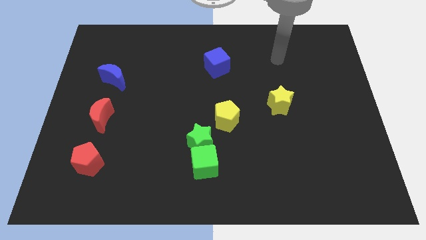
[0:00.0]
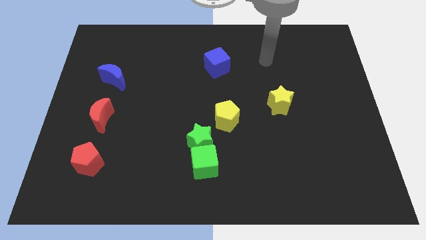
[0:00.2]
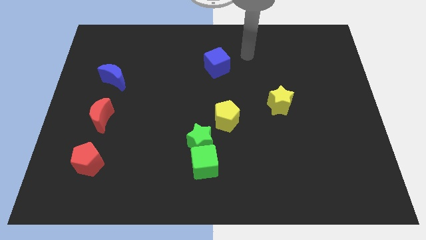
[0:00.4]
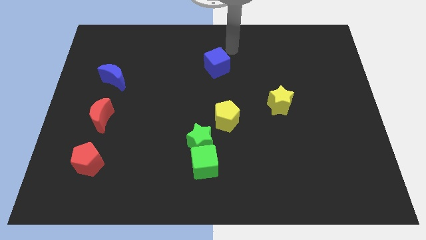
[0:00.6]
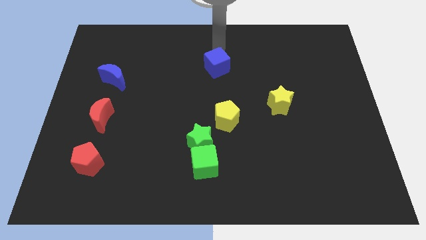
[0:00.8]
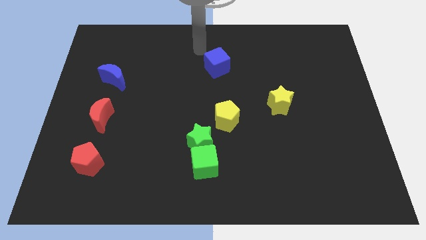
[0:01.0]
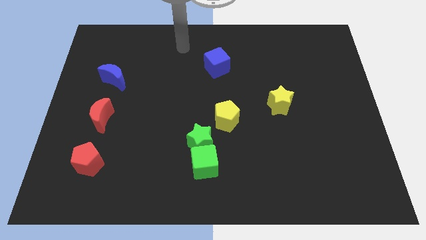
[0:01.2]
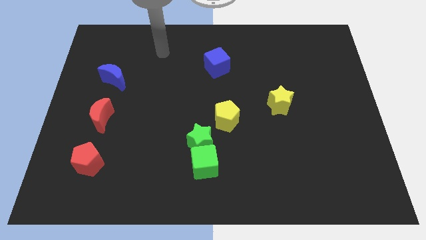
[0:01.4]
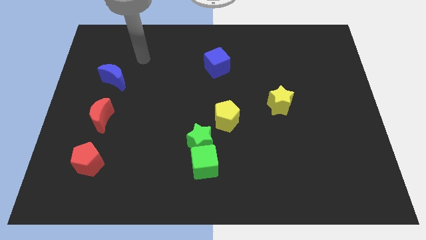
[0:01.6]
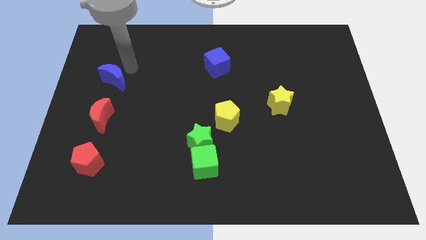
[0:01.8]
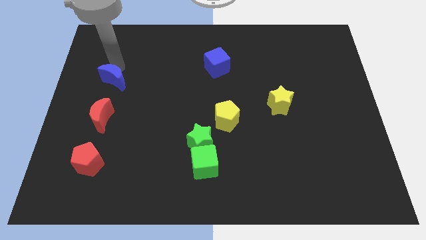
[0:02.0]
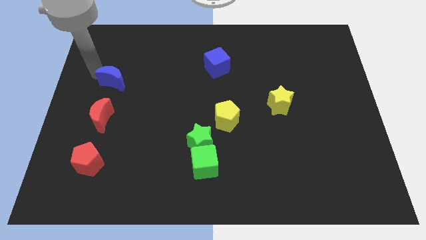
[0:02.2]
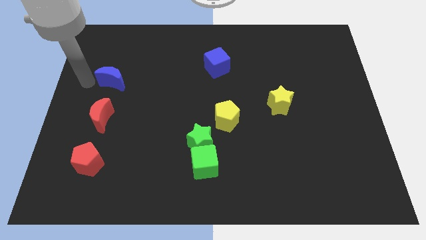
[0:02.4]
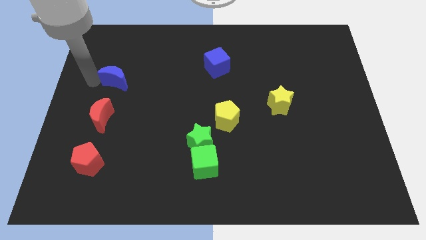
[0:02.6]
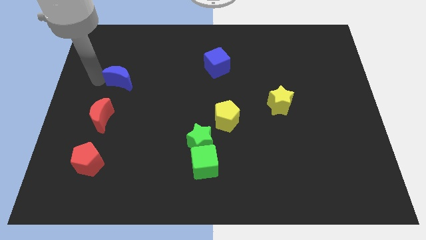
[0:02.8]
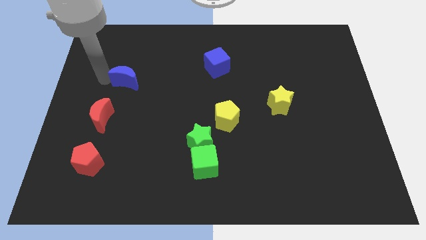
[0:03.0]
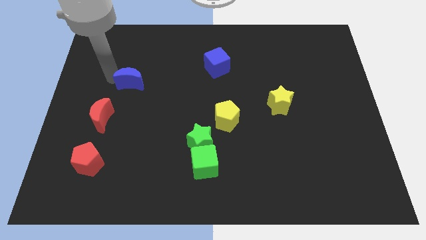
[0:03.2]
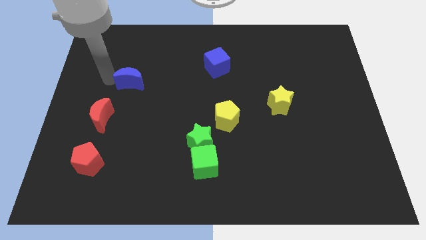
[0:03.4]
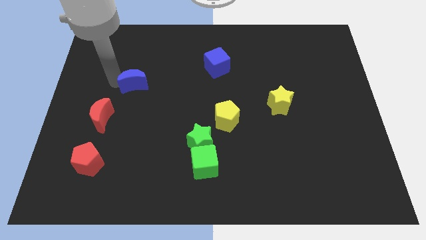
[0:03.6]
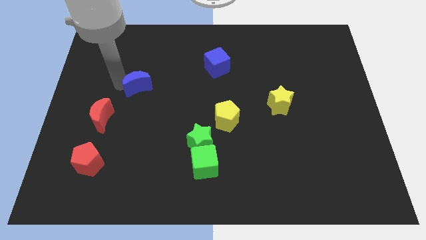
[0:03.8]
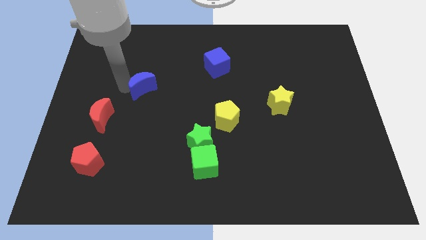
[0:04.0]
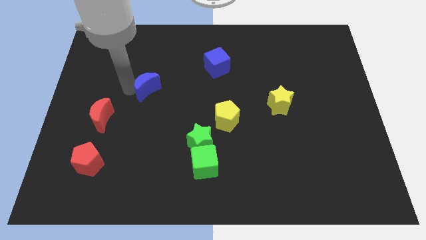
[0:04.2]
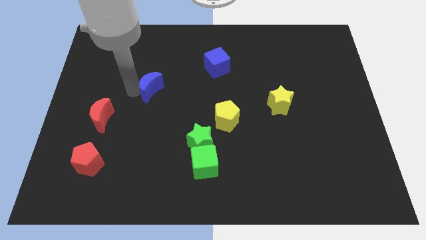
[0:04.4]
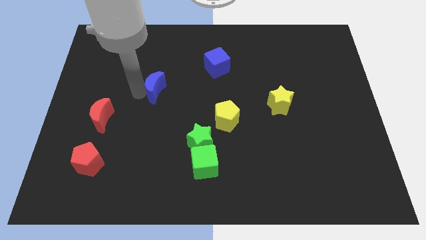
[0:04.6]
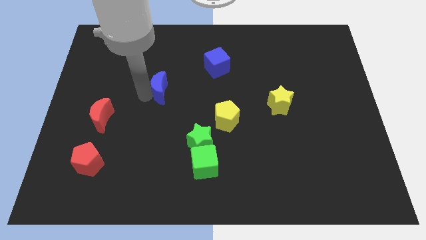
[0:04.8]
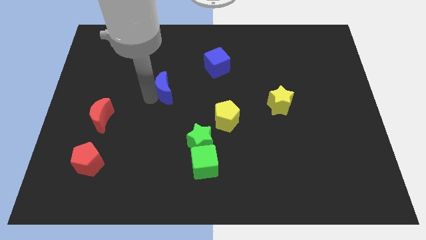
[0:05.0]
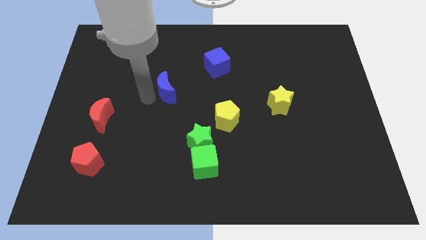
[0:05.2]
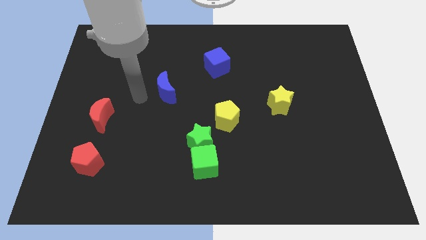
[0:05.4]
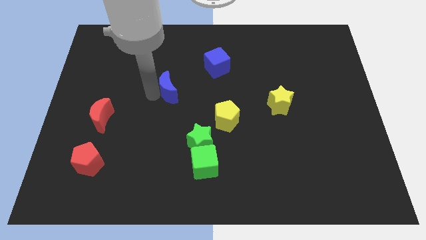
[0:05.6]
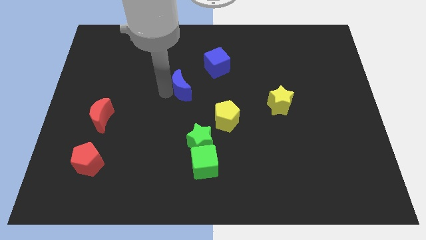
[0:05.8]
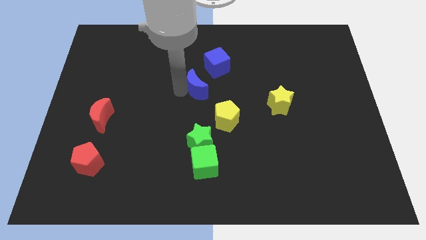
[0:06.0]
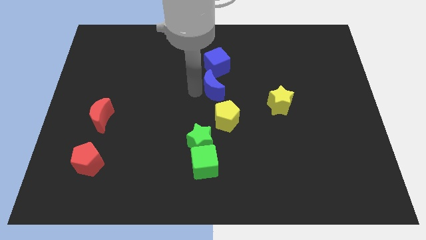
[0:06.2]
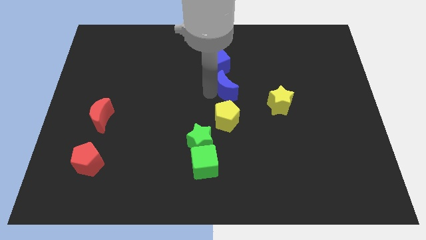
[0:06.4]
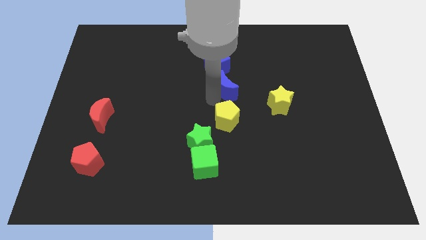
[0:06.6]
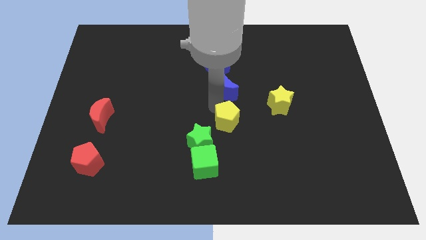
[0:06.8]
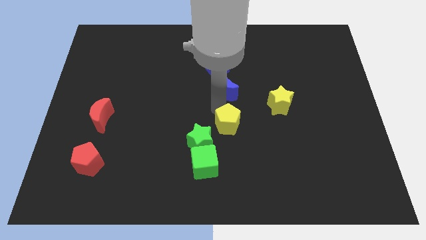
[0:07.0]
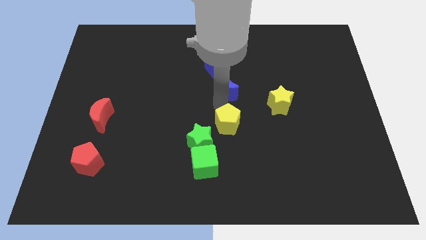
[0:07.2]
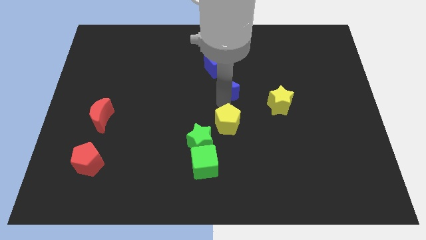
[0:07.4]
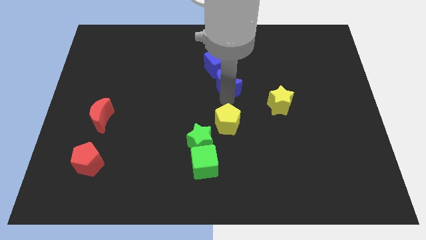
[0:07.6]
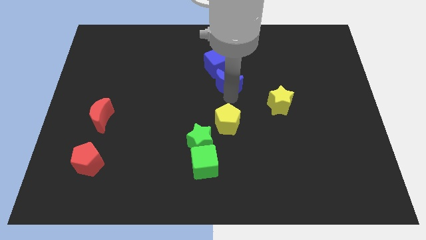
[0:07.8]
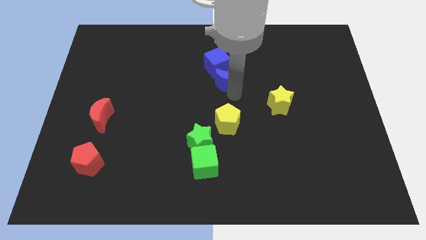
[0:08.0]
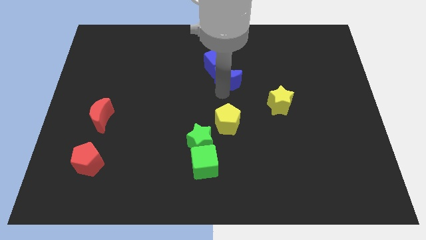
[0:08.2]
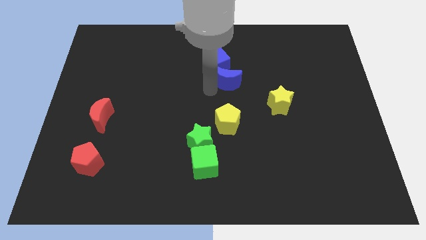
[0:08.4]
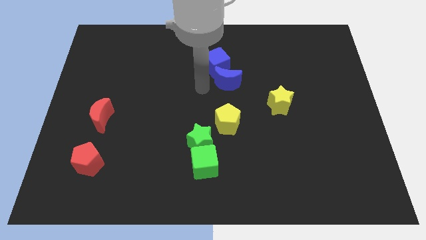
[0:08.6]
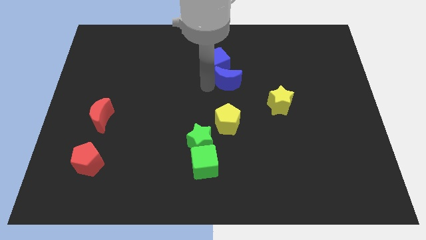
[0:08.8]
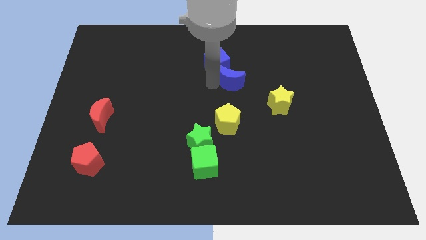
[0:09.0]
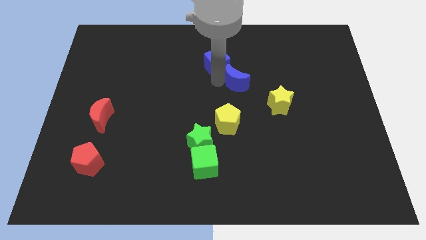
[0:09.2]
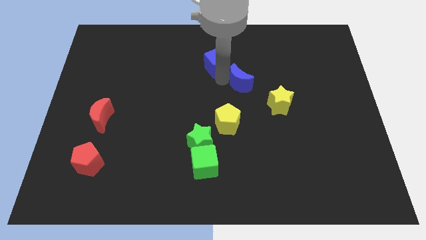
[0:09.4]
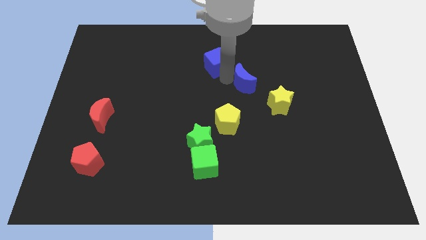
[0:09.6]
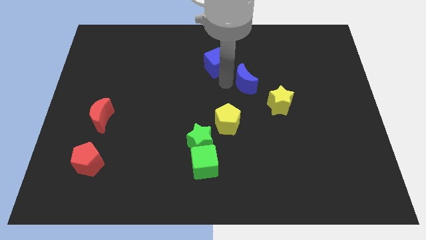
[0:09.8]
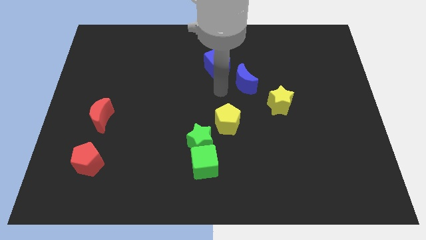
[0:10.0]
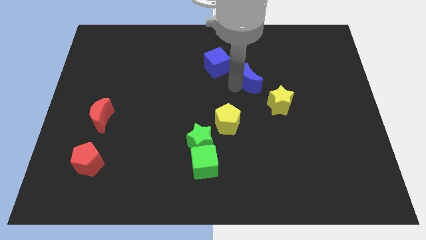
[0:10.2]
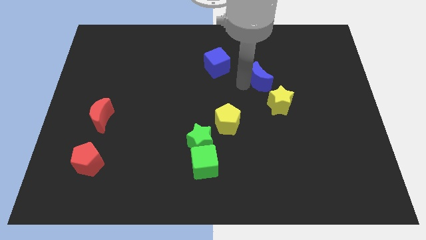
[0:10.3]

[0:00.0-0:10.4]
push the blue moon to the top side of the yellow star

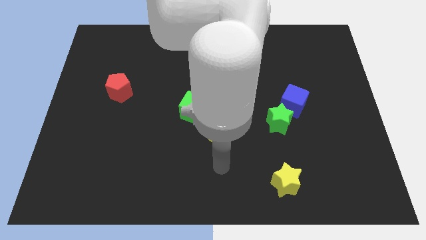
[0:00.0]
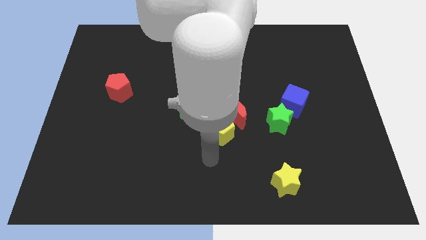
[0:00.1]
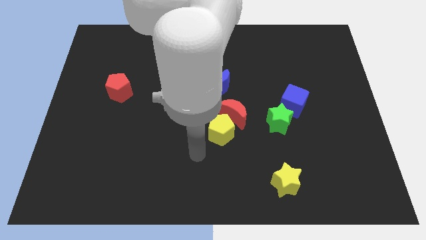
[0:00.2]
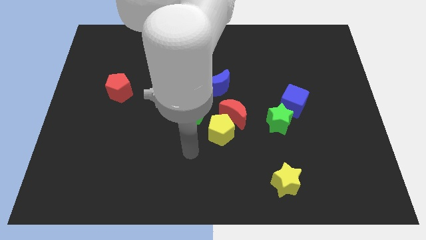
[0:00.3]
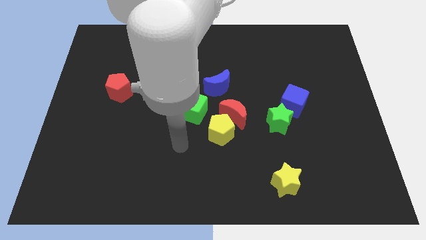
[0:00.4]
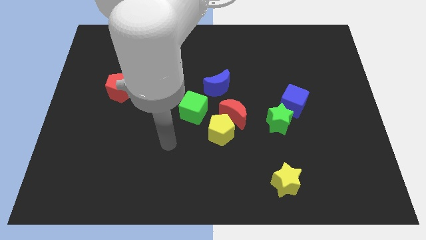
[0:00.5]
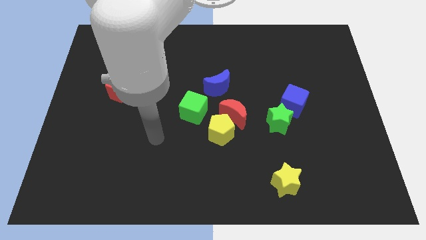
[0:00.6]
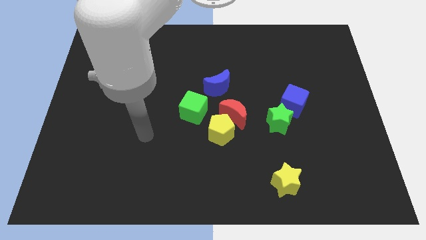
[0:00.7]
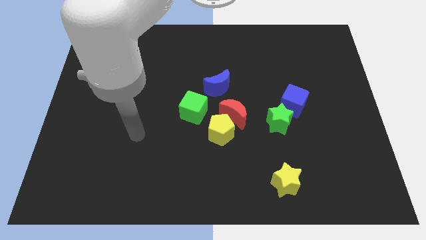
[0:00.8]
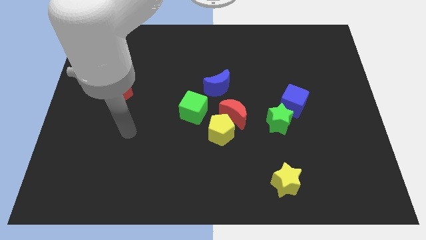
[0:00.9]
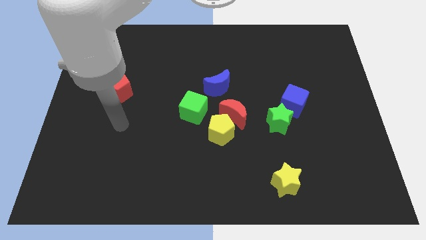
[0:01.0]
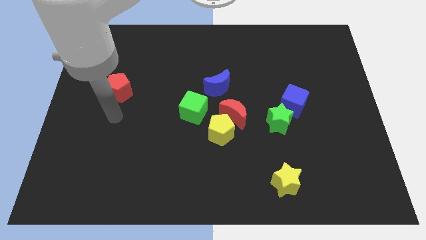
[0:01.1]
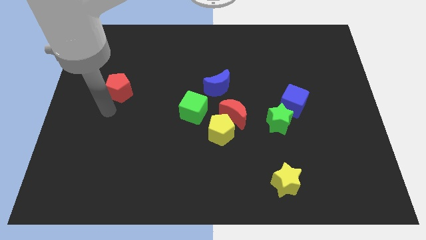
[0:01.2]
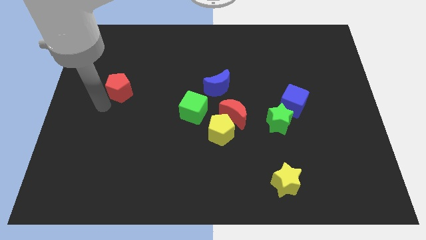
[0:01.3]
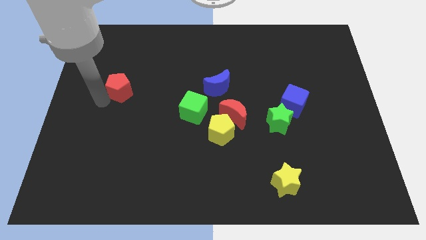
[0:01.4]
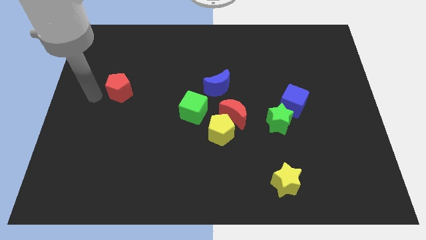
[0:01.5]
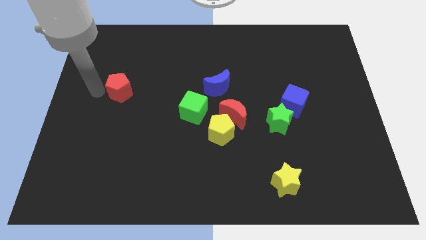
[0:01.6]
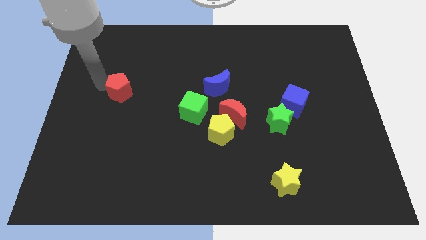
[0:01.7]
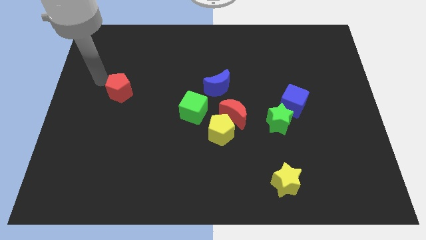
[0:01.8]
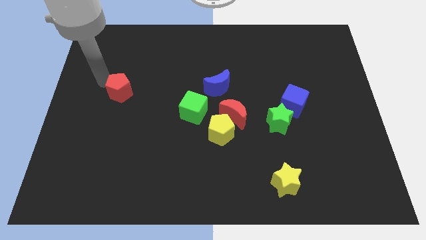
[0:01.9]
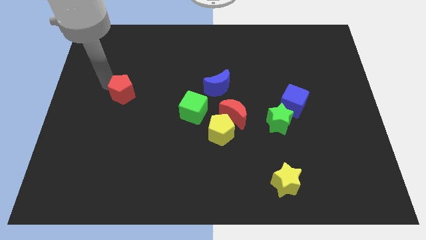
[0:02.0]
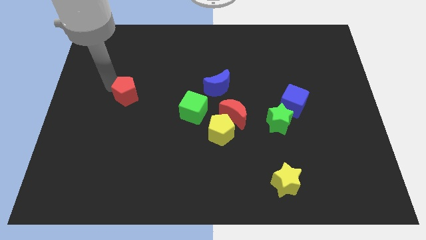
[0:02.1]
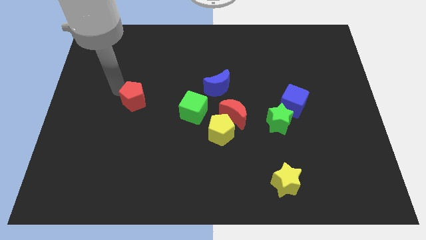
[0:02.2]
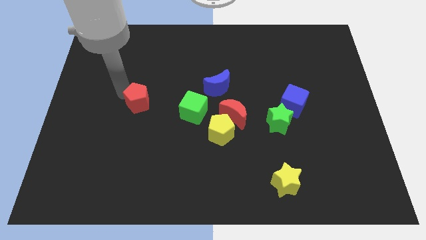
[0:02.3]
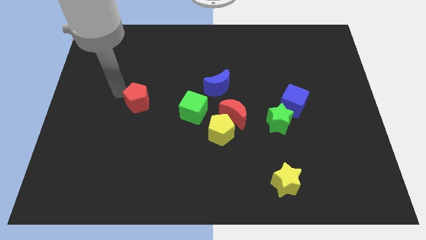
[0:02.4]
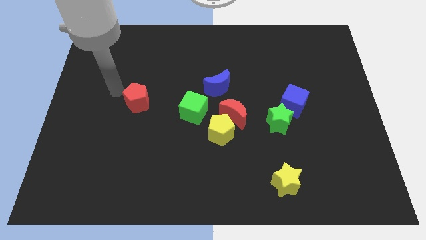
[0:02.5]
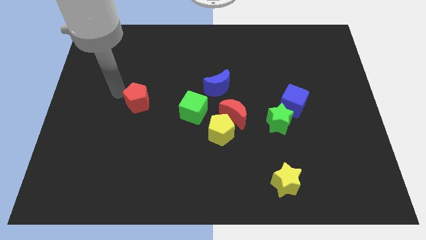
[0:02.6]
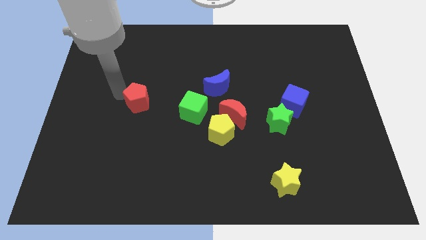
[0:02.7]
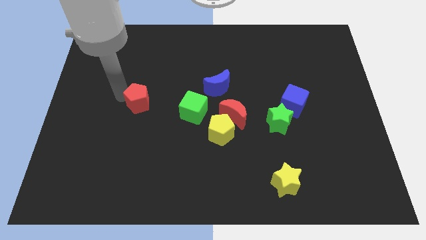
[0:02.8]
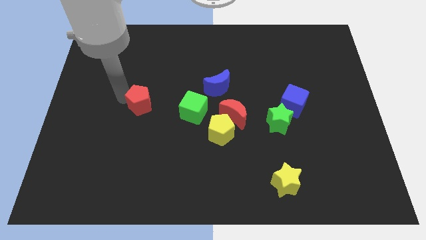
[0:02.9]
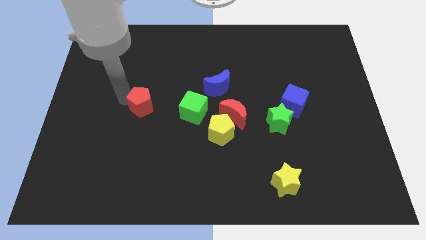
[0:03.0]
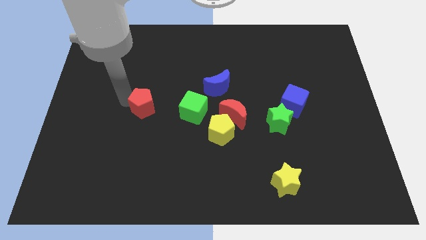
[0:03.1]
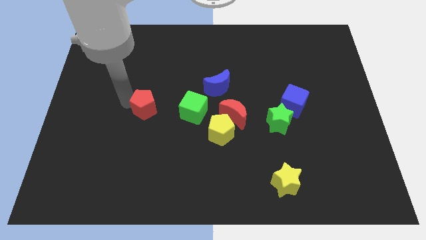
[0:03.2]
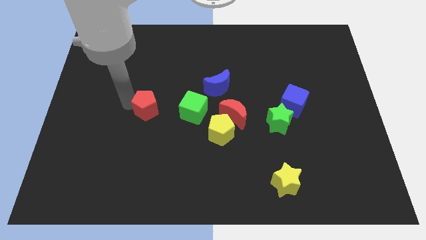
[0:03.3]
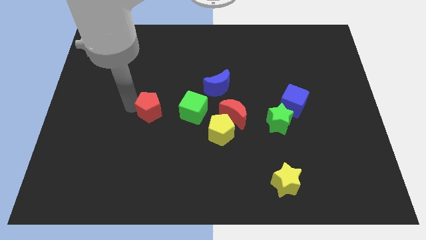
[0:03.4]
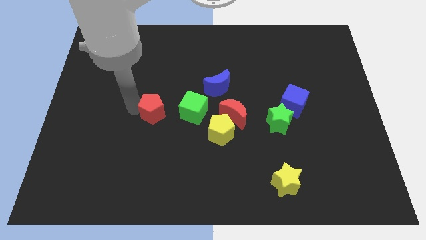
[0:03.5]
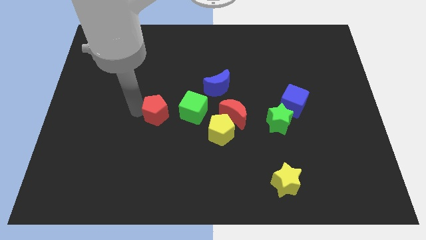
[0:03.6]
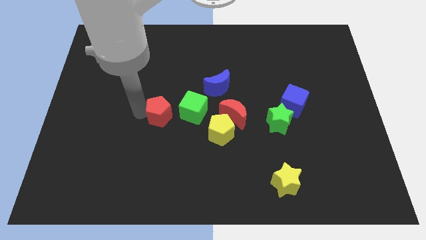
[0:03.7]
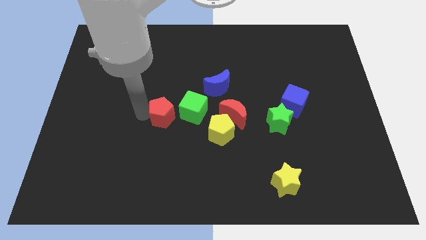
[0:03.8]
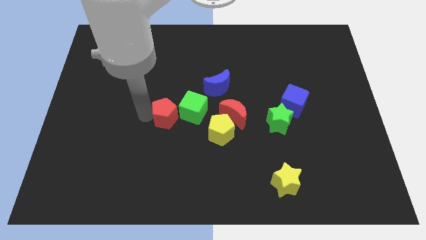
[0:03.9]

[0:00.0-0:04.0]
put the red pentagon to the left of the red moon
